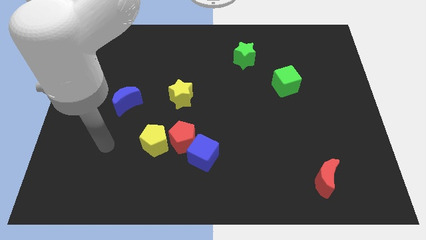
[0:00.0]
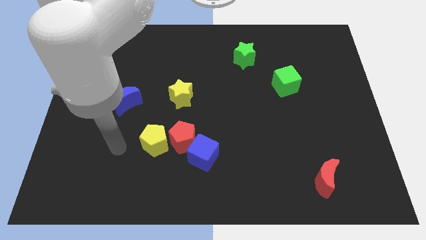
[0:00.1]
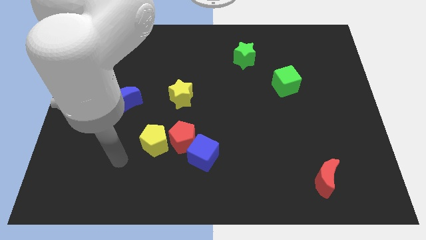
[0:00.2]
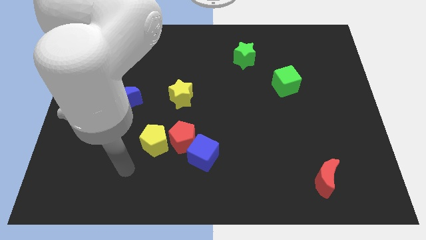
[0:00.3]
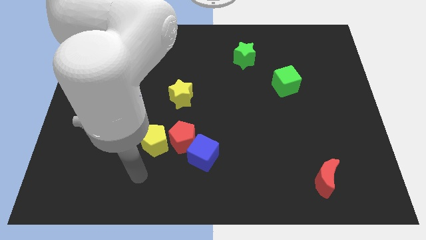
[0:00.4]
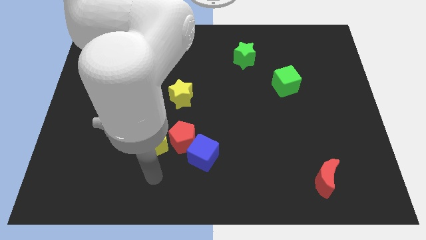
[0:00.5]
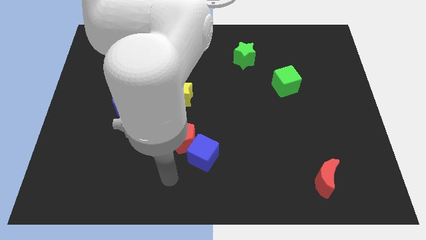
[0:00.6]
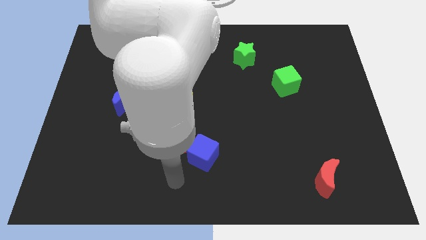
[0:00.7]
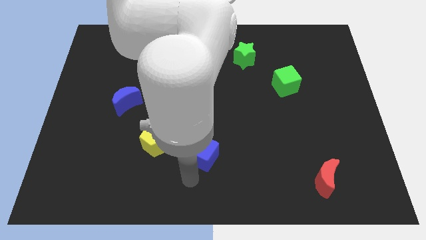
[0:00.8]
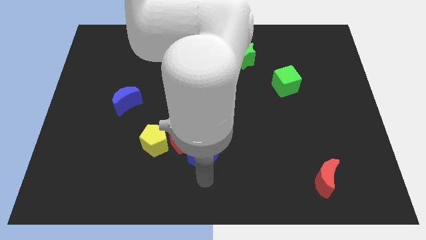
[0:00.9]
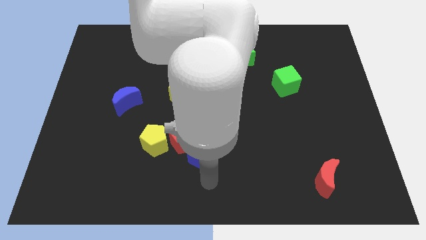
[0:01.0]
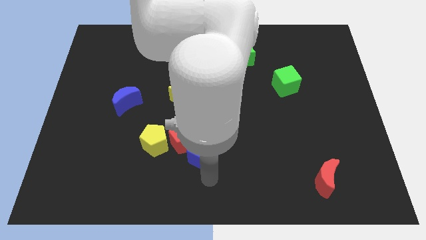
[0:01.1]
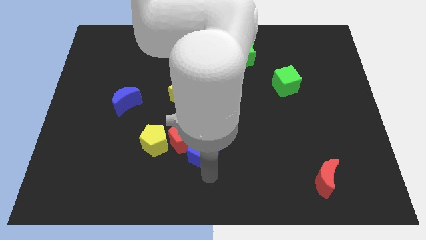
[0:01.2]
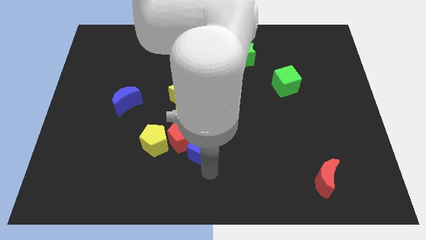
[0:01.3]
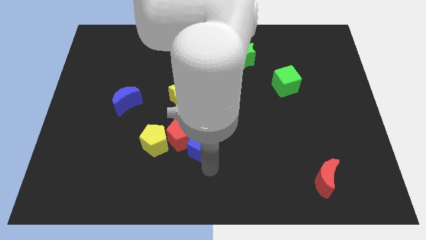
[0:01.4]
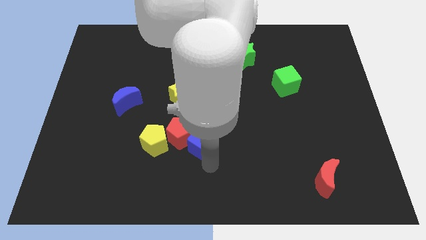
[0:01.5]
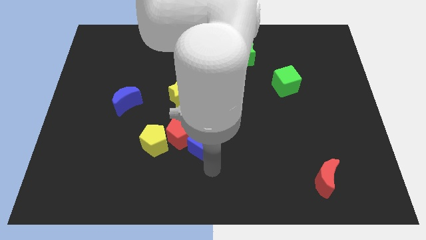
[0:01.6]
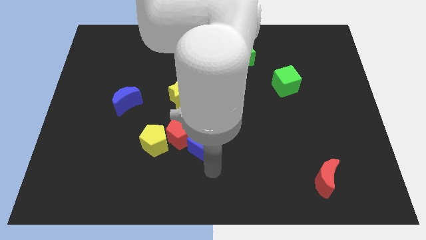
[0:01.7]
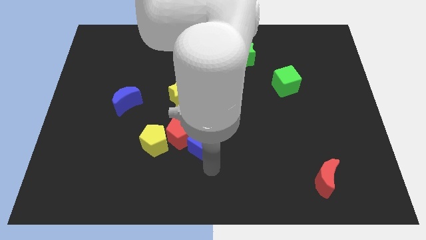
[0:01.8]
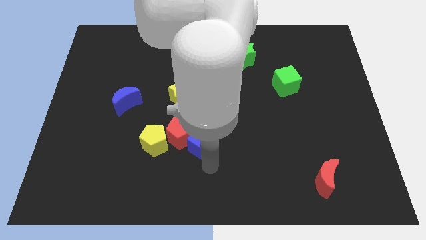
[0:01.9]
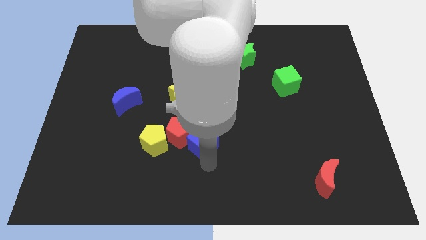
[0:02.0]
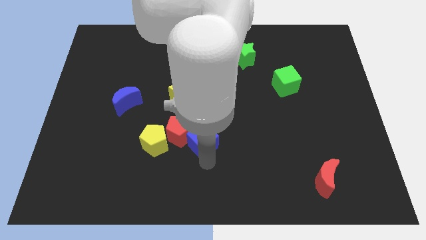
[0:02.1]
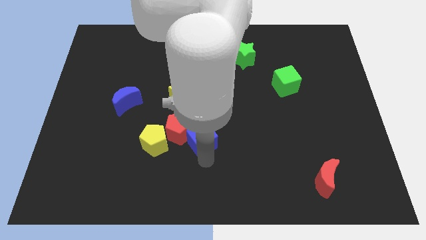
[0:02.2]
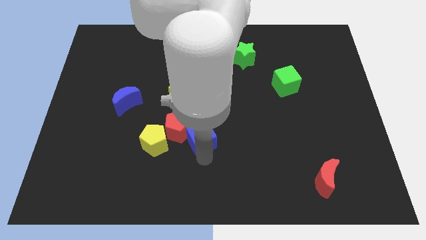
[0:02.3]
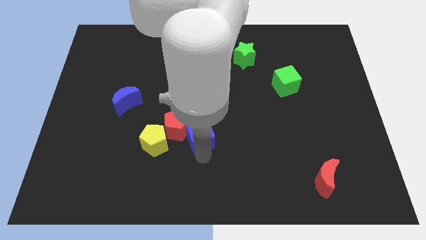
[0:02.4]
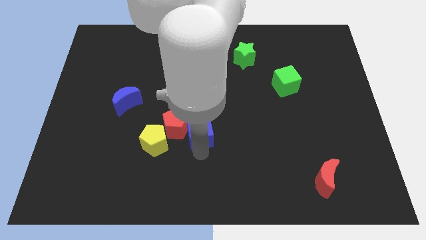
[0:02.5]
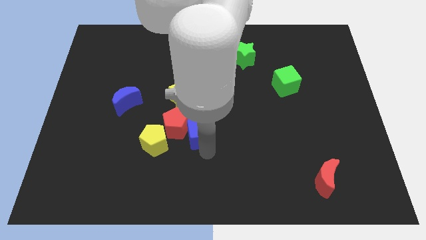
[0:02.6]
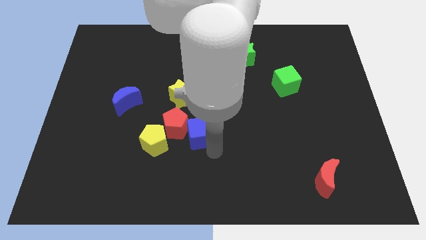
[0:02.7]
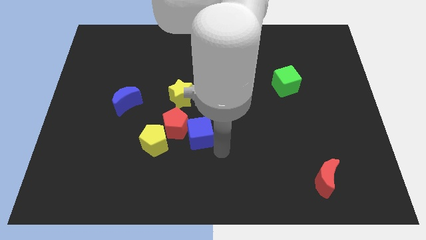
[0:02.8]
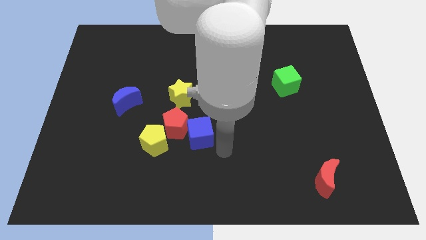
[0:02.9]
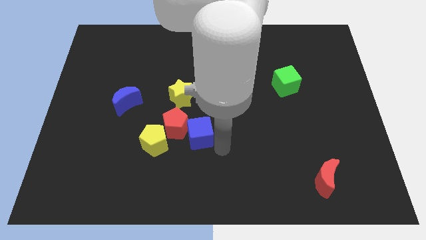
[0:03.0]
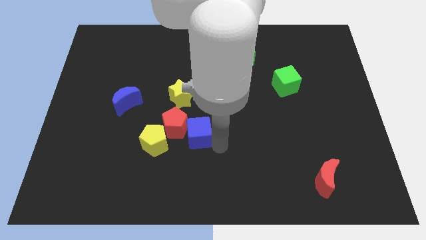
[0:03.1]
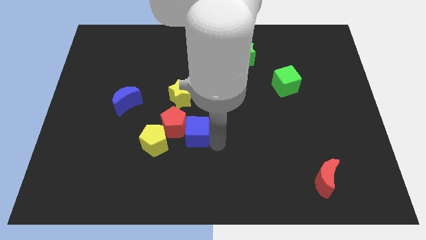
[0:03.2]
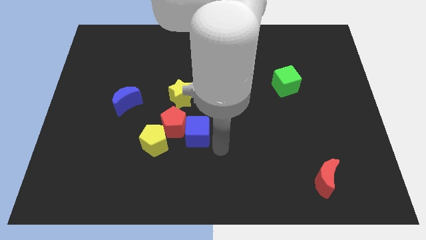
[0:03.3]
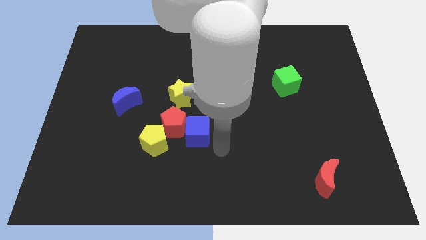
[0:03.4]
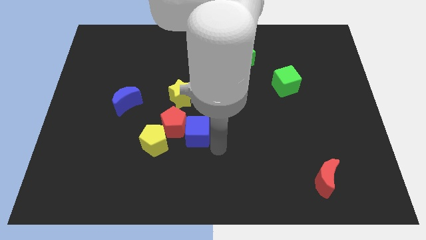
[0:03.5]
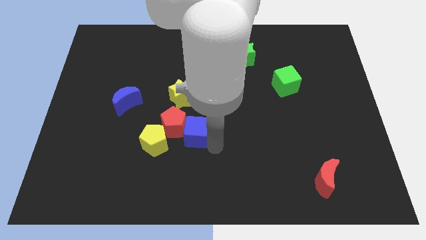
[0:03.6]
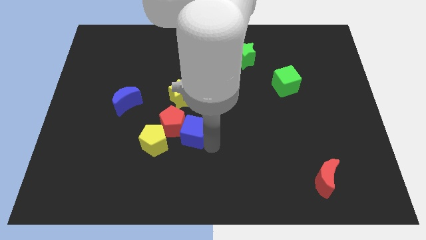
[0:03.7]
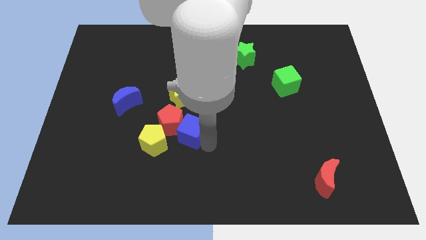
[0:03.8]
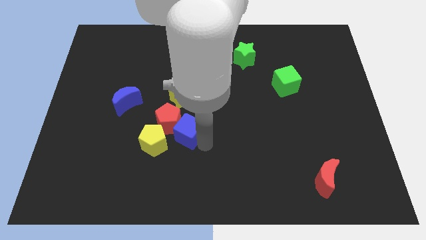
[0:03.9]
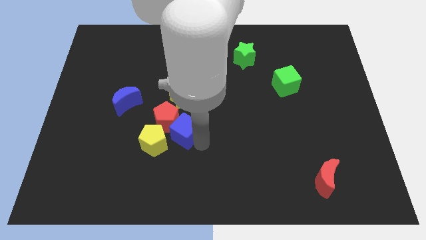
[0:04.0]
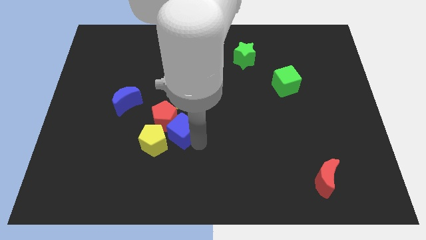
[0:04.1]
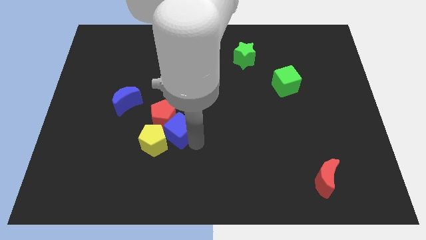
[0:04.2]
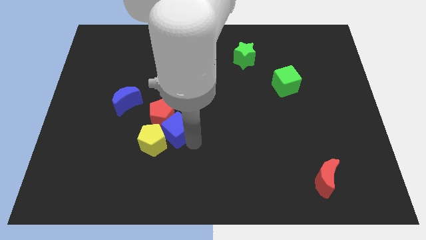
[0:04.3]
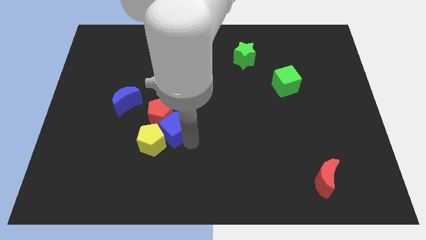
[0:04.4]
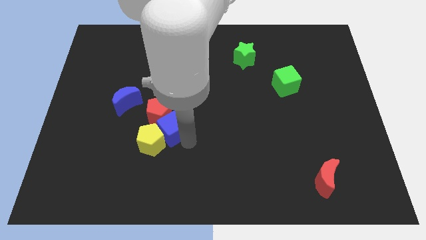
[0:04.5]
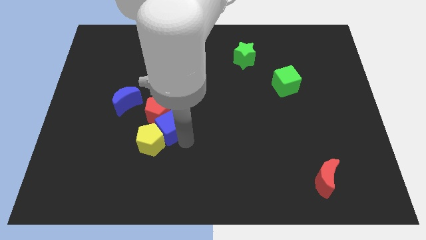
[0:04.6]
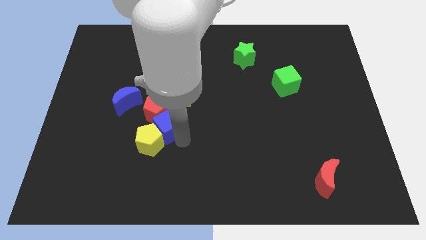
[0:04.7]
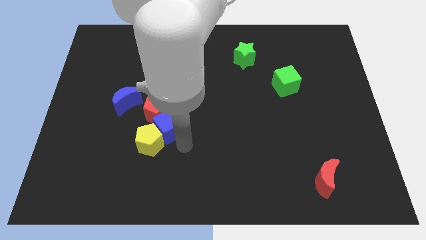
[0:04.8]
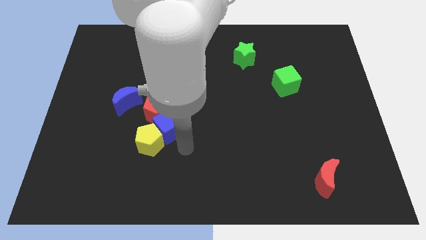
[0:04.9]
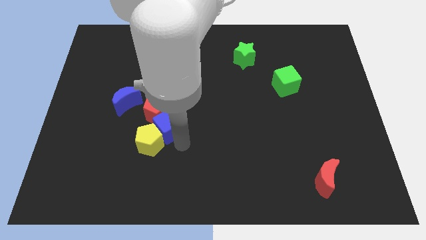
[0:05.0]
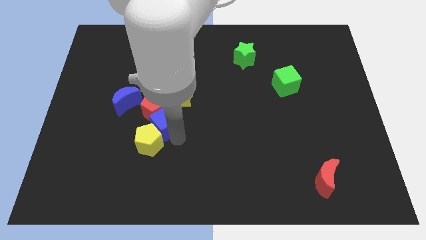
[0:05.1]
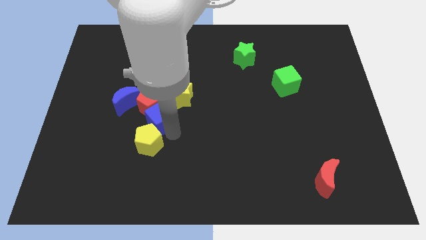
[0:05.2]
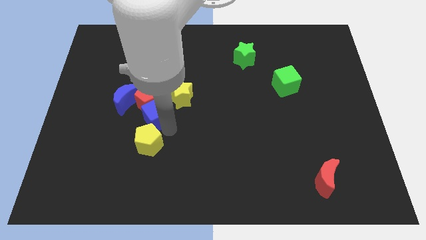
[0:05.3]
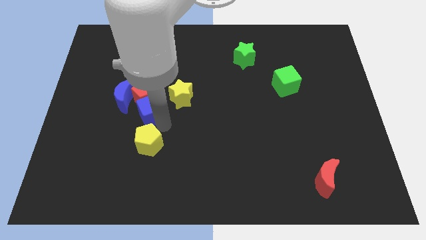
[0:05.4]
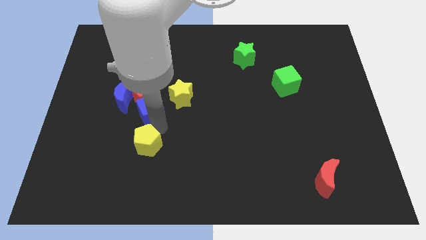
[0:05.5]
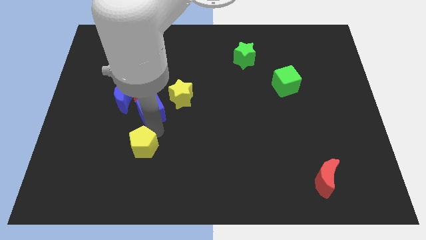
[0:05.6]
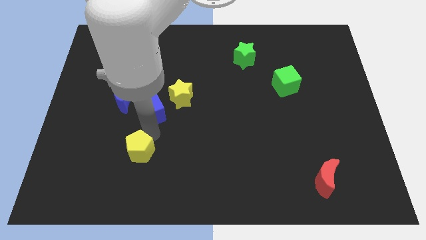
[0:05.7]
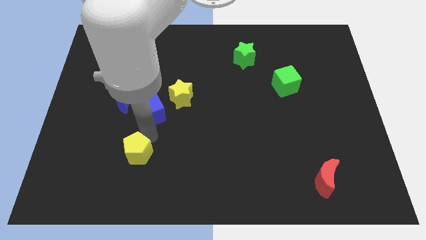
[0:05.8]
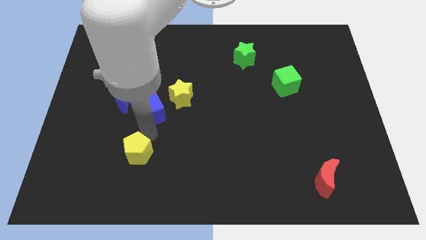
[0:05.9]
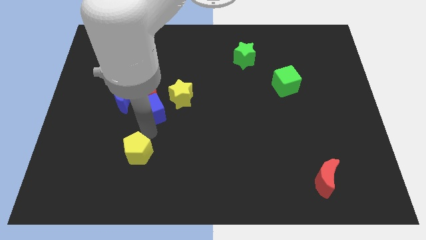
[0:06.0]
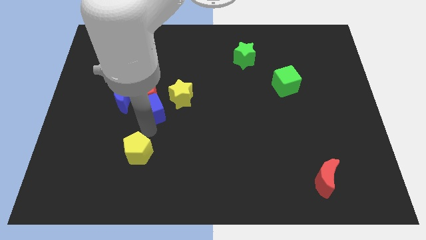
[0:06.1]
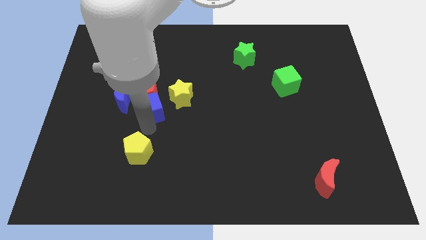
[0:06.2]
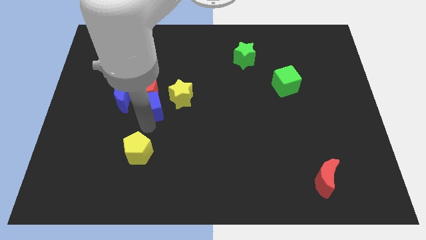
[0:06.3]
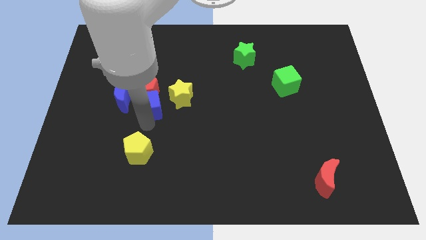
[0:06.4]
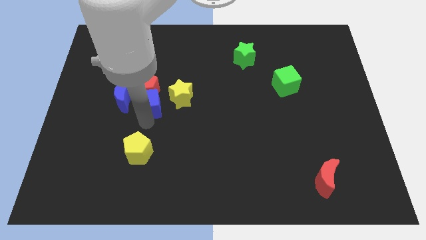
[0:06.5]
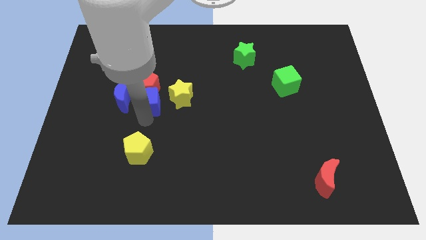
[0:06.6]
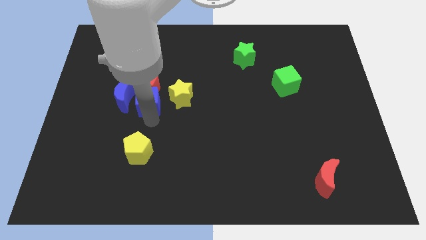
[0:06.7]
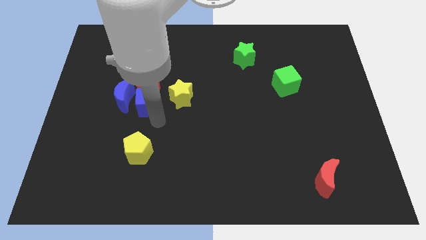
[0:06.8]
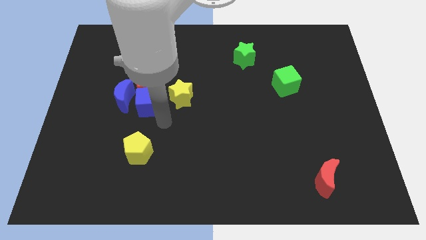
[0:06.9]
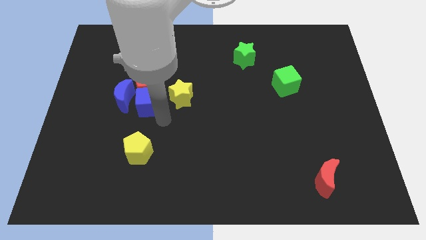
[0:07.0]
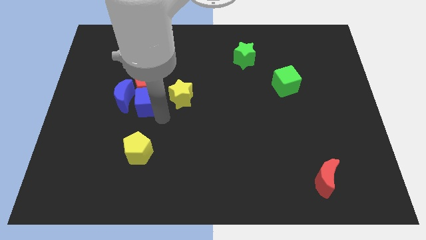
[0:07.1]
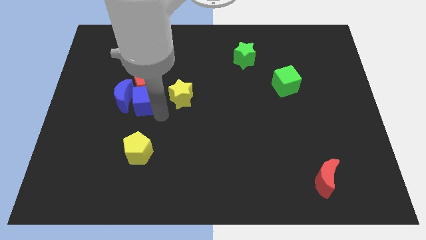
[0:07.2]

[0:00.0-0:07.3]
move the blue cube up and to the left diagonally

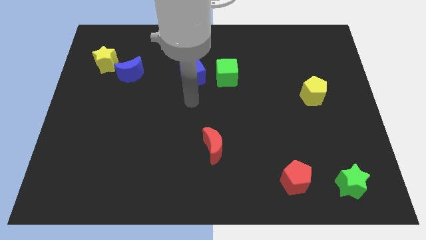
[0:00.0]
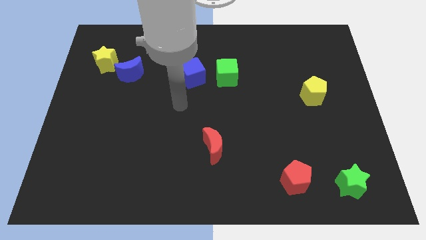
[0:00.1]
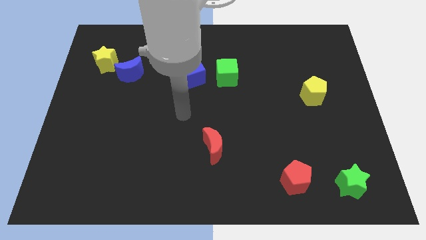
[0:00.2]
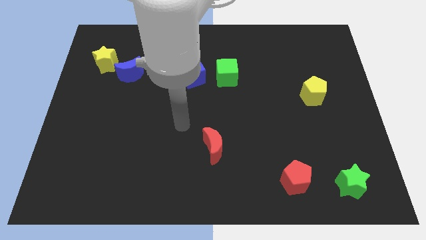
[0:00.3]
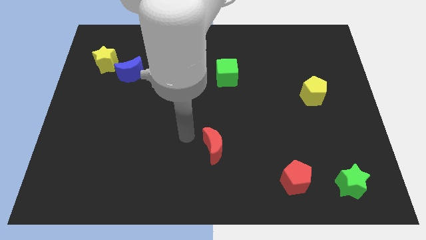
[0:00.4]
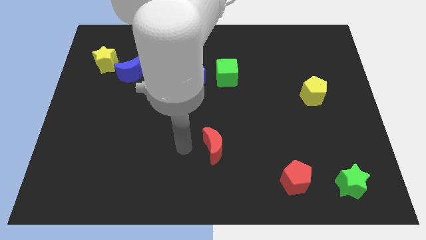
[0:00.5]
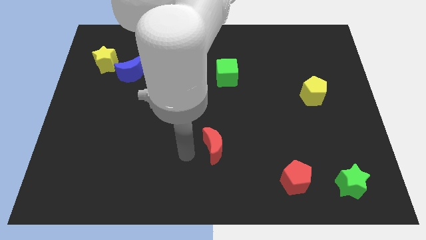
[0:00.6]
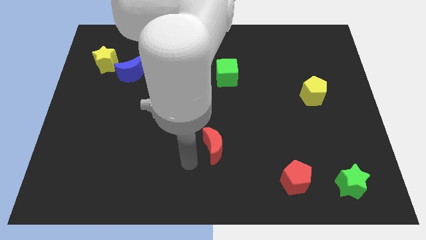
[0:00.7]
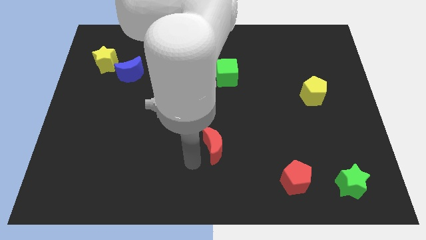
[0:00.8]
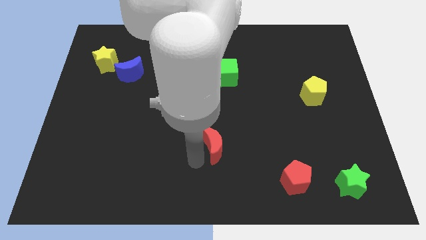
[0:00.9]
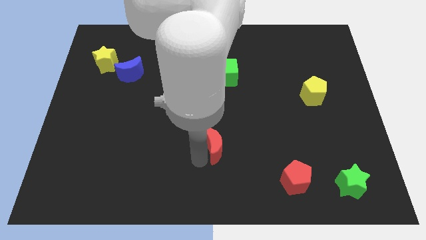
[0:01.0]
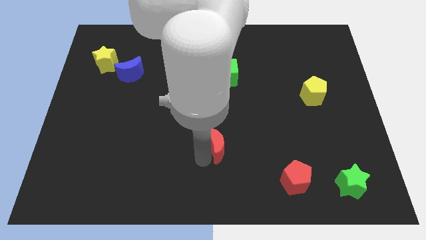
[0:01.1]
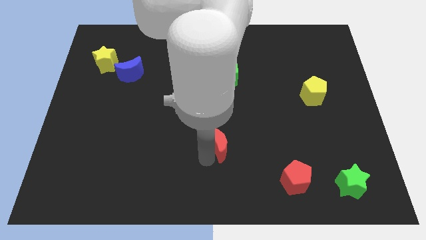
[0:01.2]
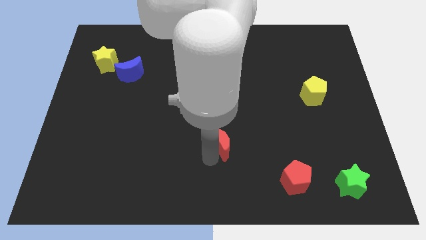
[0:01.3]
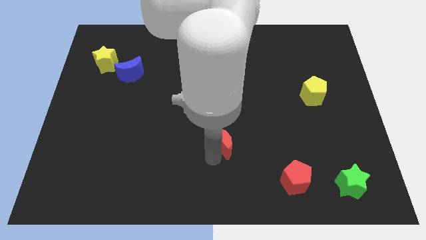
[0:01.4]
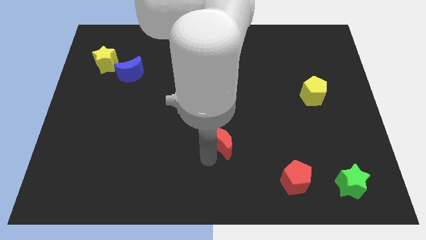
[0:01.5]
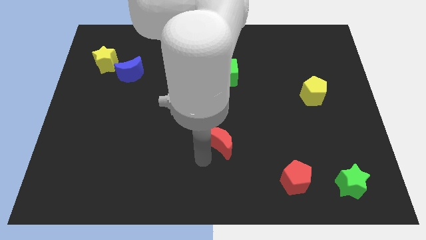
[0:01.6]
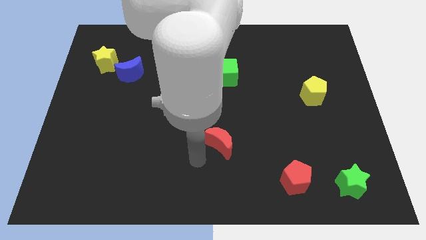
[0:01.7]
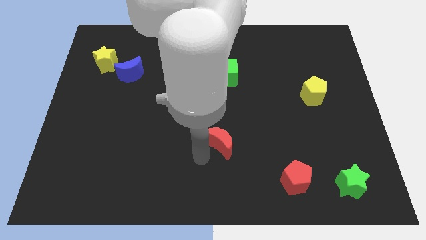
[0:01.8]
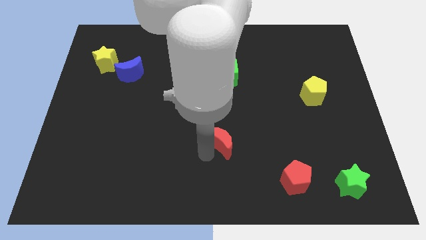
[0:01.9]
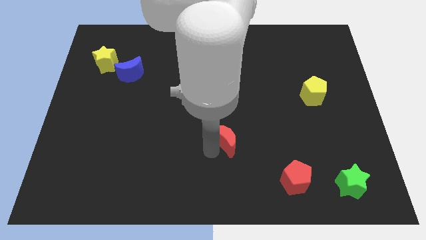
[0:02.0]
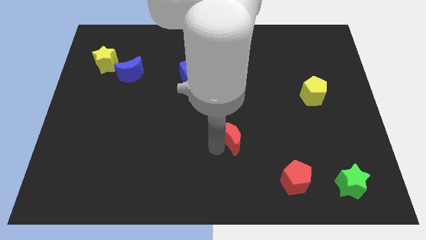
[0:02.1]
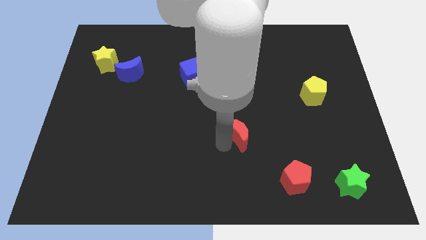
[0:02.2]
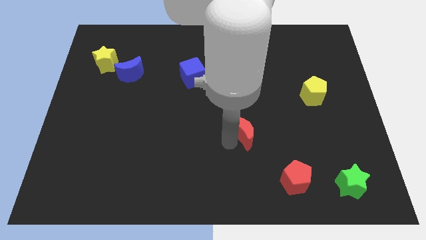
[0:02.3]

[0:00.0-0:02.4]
slide the red moon up and then to the right a bit
